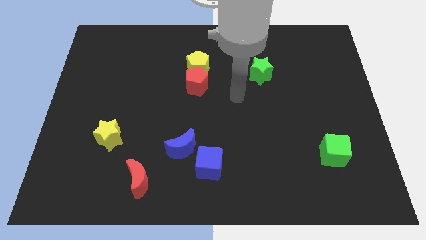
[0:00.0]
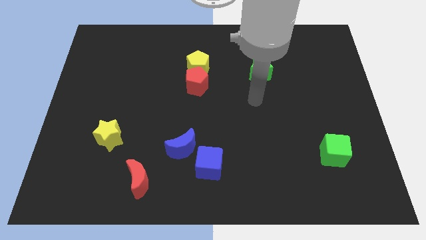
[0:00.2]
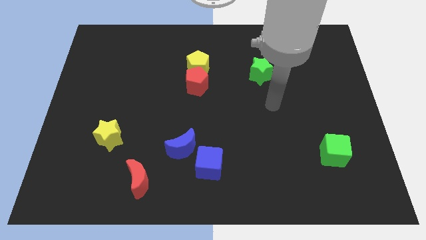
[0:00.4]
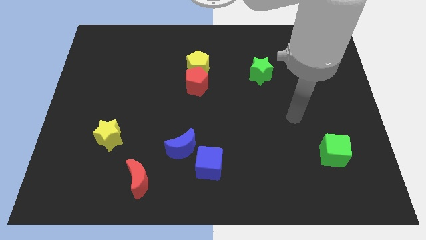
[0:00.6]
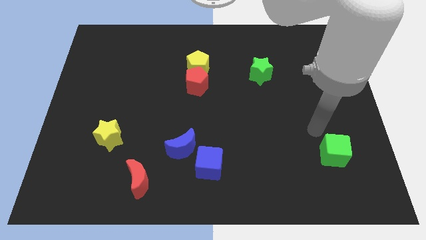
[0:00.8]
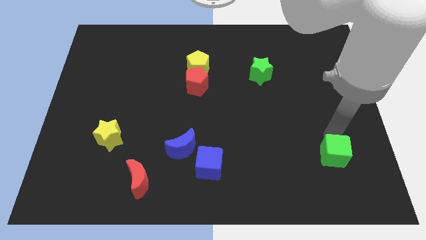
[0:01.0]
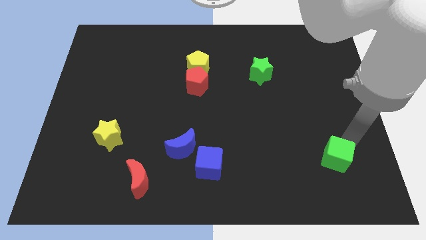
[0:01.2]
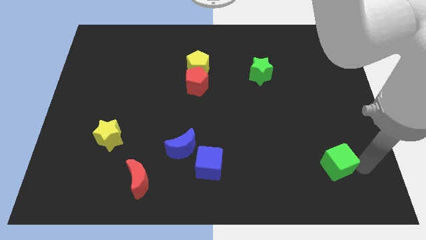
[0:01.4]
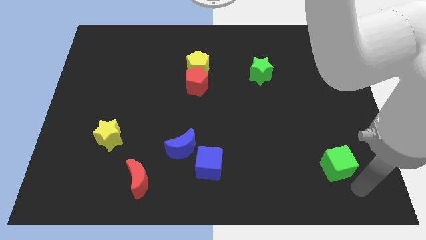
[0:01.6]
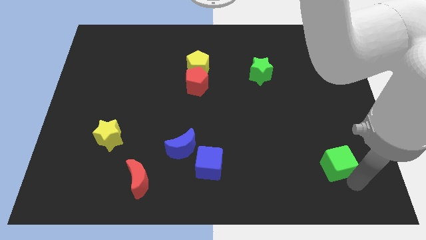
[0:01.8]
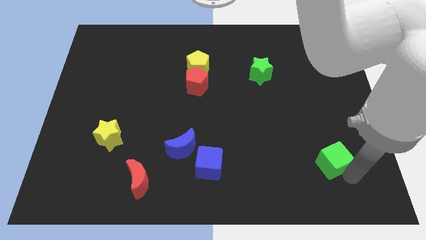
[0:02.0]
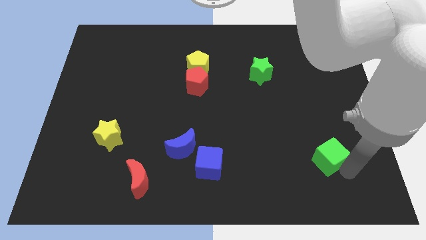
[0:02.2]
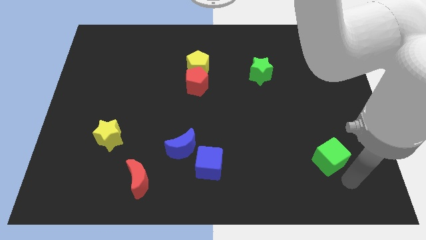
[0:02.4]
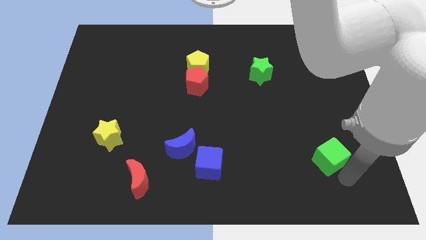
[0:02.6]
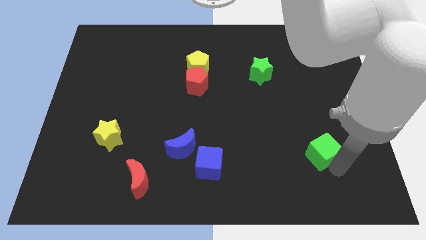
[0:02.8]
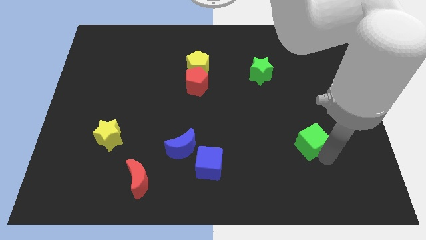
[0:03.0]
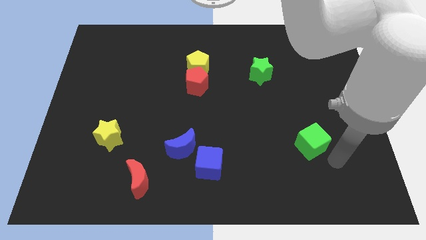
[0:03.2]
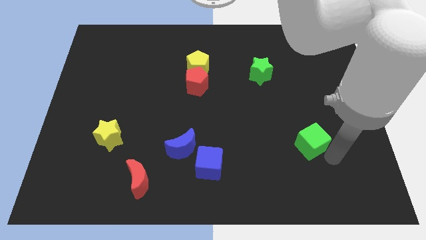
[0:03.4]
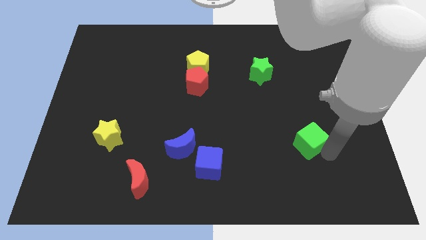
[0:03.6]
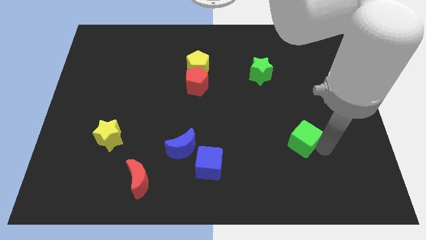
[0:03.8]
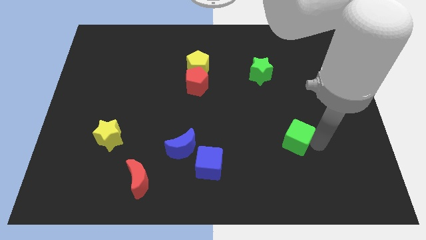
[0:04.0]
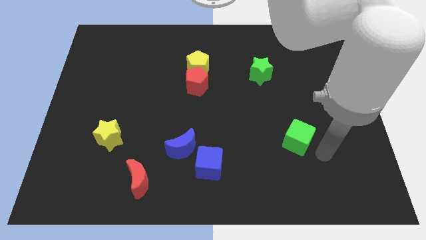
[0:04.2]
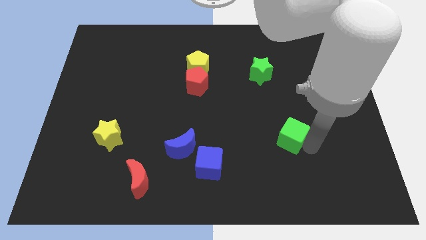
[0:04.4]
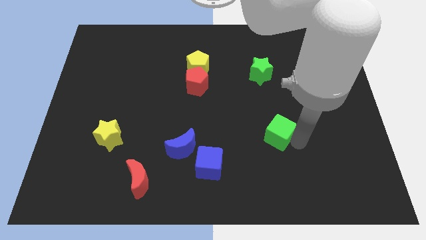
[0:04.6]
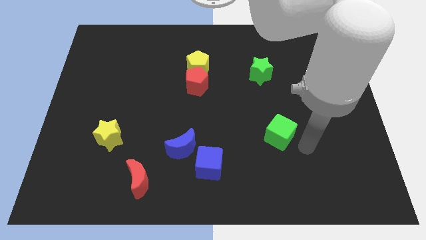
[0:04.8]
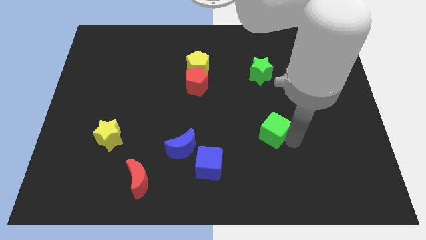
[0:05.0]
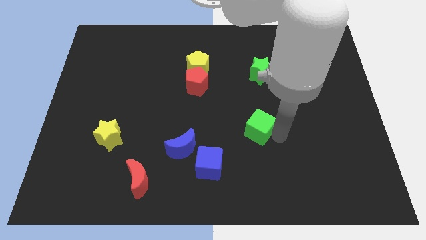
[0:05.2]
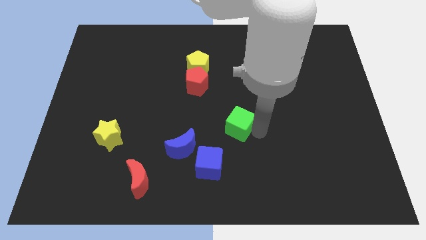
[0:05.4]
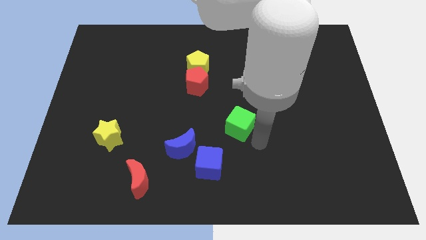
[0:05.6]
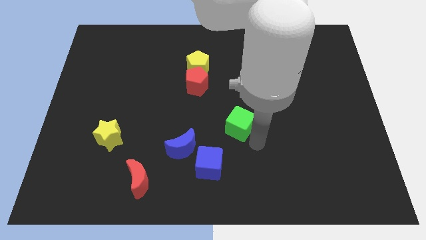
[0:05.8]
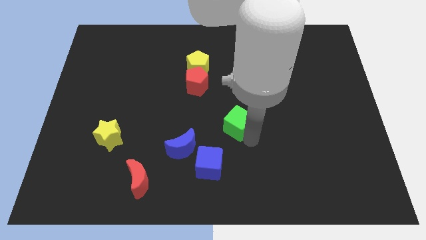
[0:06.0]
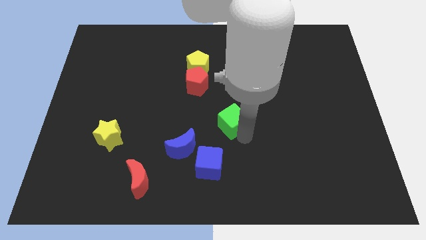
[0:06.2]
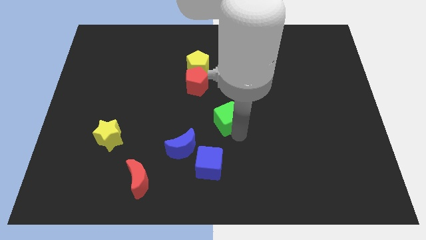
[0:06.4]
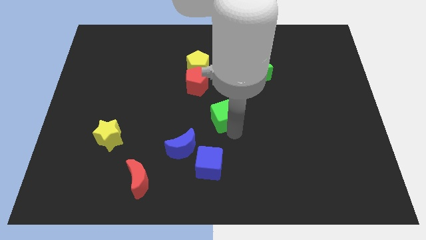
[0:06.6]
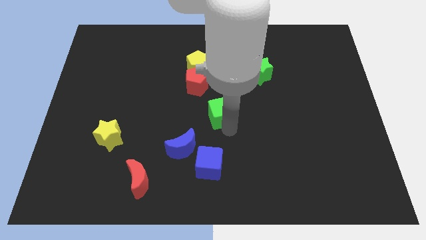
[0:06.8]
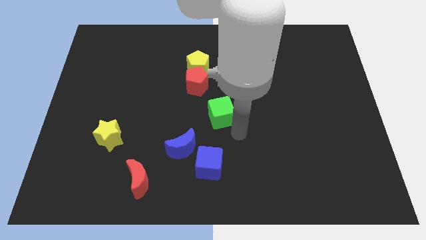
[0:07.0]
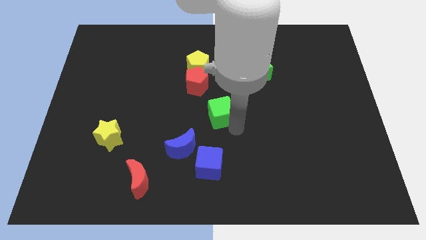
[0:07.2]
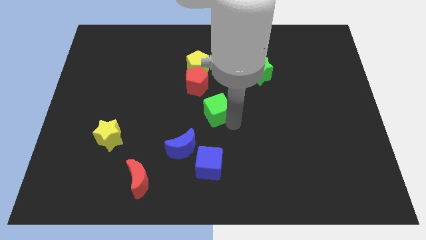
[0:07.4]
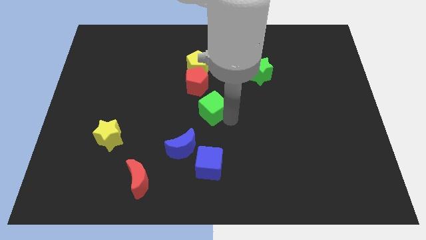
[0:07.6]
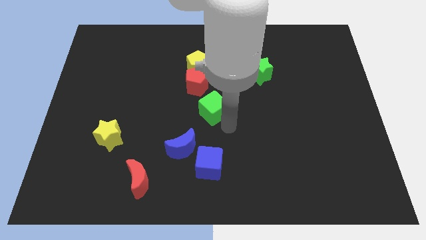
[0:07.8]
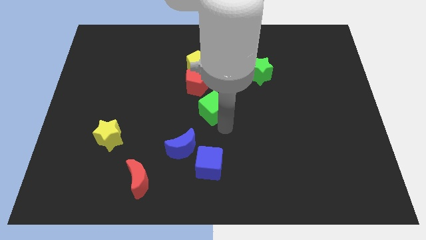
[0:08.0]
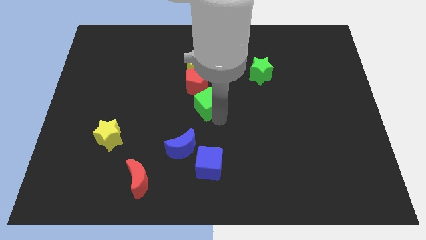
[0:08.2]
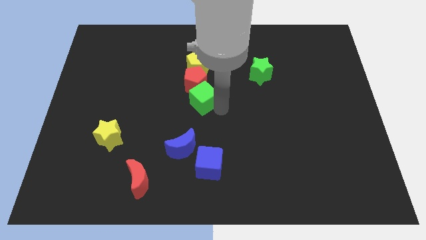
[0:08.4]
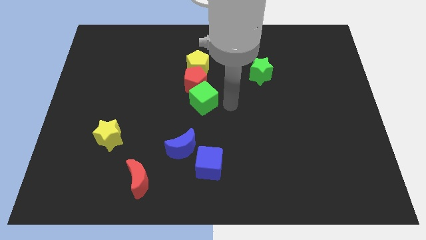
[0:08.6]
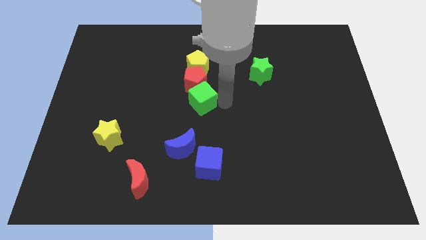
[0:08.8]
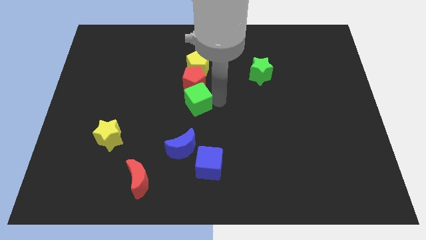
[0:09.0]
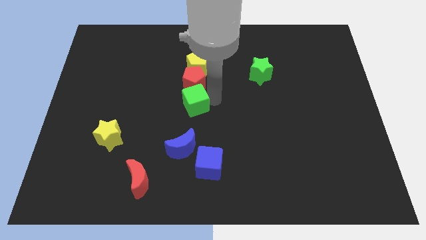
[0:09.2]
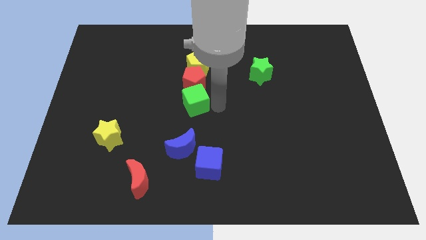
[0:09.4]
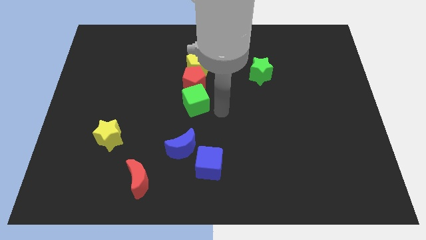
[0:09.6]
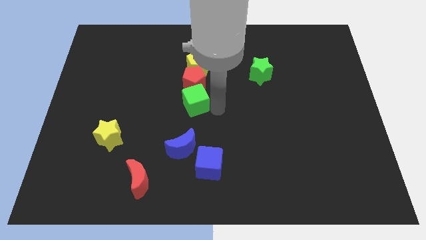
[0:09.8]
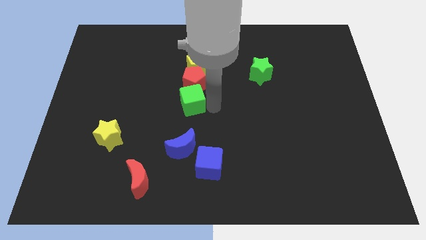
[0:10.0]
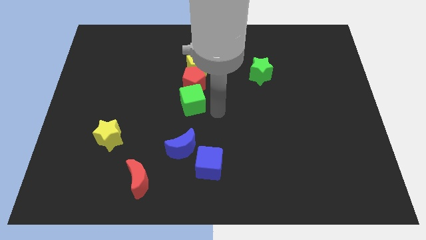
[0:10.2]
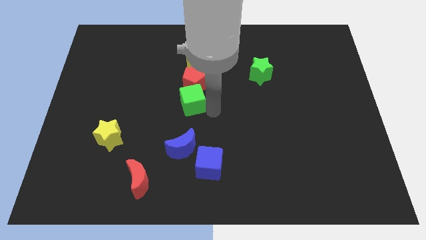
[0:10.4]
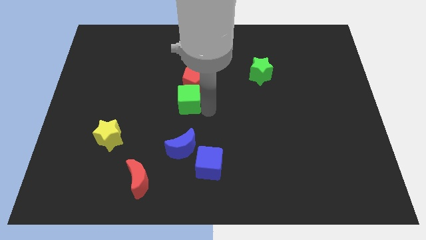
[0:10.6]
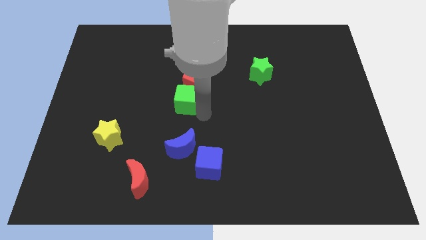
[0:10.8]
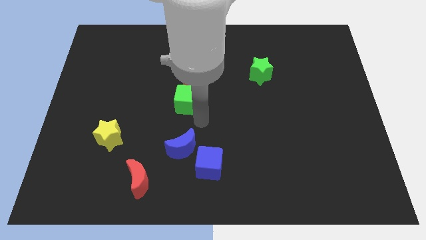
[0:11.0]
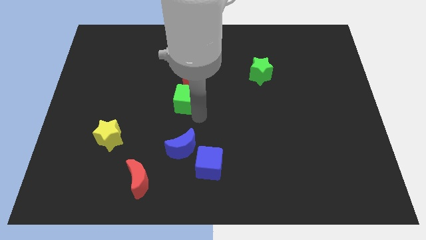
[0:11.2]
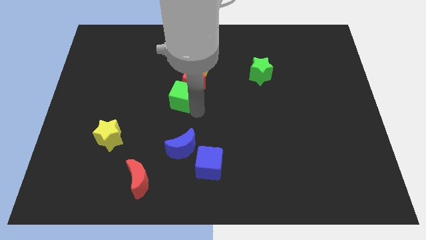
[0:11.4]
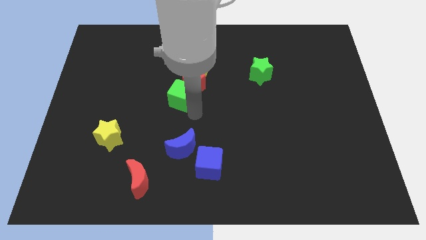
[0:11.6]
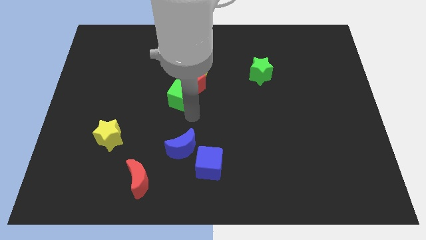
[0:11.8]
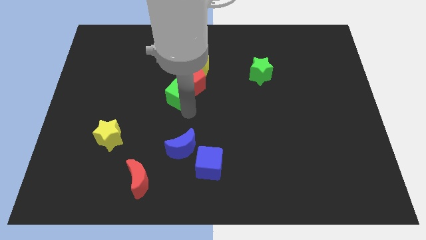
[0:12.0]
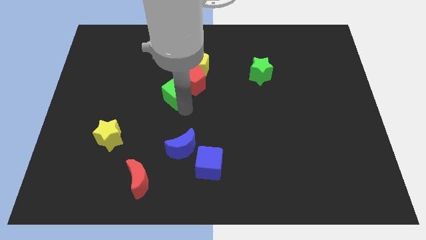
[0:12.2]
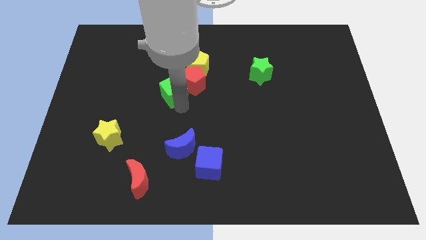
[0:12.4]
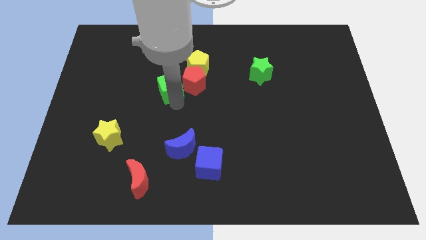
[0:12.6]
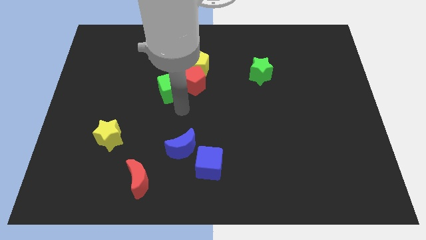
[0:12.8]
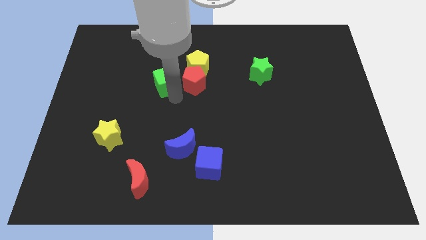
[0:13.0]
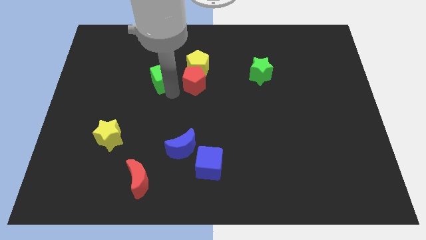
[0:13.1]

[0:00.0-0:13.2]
move the green cube left of the yellow pentagon

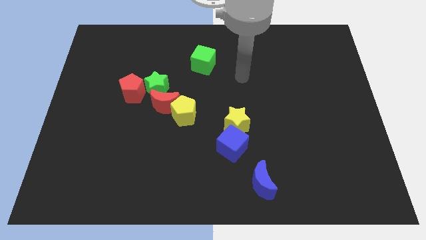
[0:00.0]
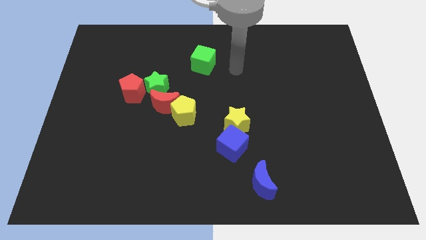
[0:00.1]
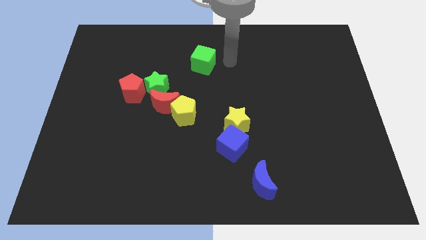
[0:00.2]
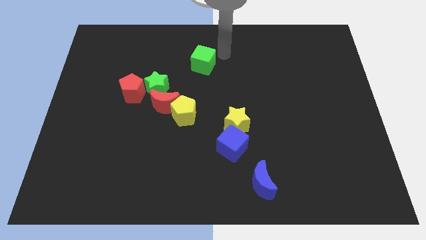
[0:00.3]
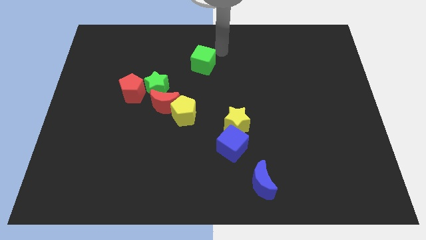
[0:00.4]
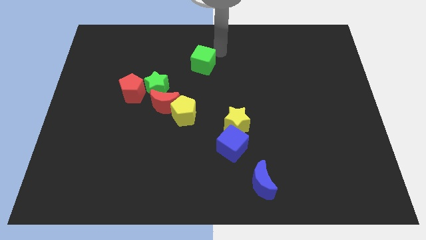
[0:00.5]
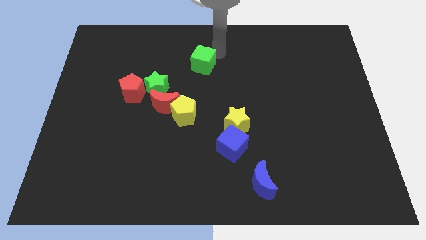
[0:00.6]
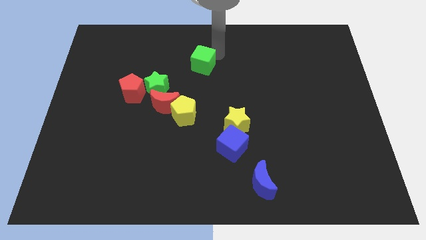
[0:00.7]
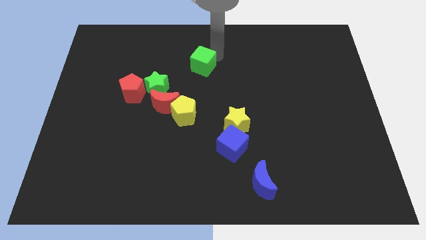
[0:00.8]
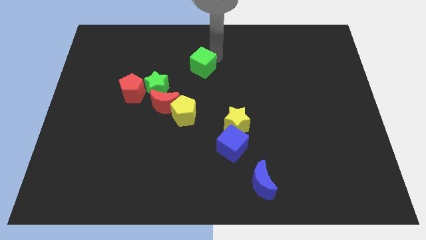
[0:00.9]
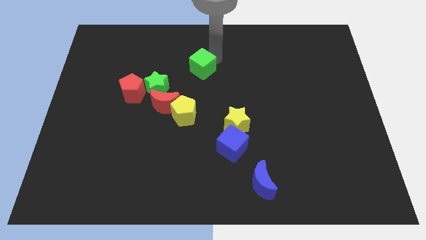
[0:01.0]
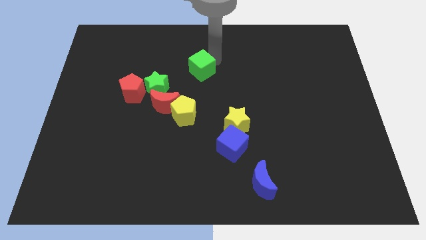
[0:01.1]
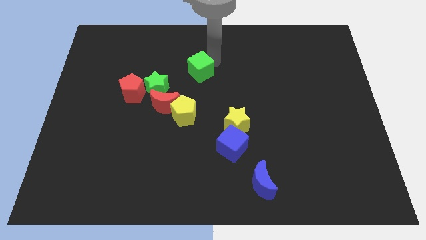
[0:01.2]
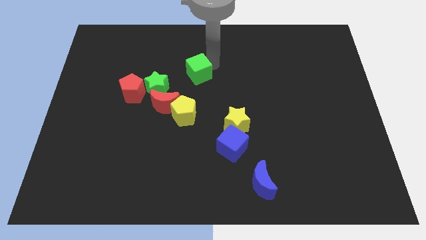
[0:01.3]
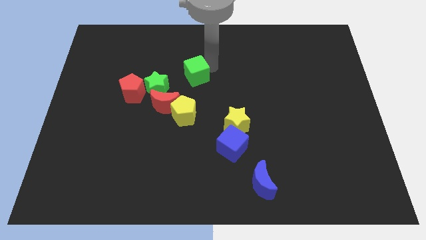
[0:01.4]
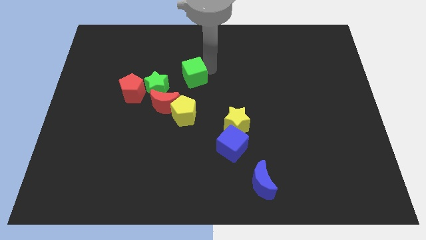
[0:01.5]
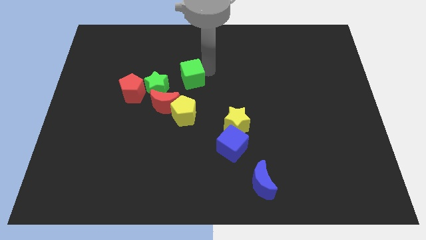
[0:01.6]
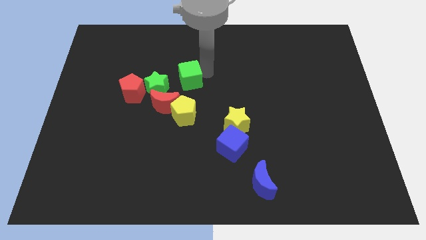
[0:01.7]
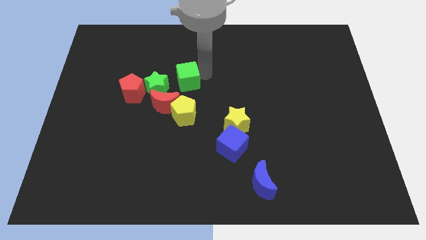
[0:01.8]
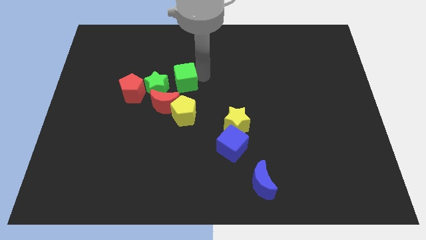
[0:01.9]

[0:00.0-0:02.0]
put the green cube to the top of the red moon
